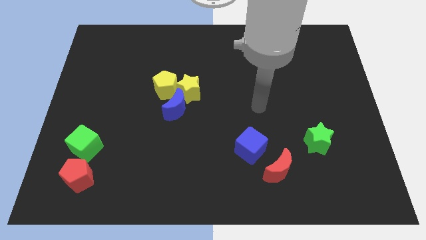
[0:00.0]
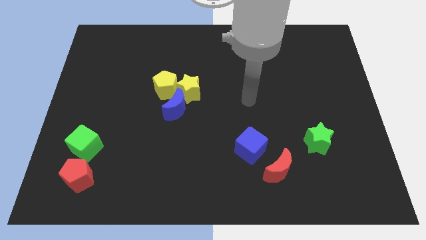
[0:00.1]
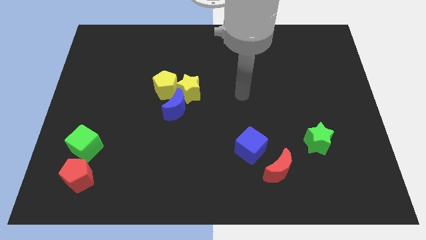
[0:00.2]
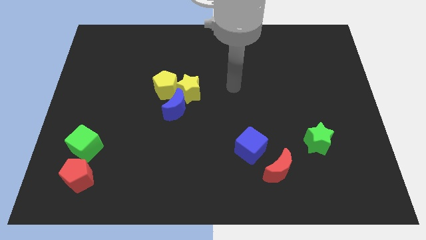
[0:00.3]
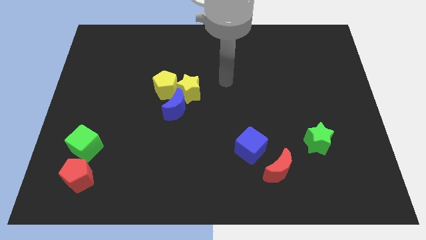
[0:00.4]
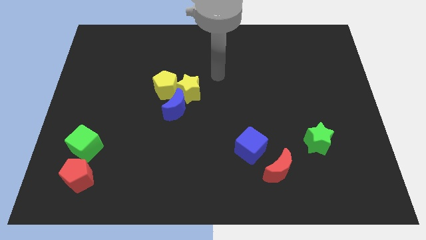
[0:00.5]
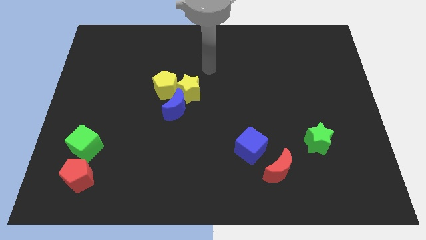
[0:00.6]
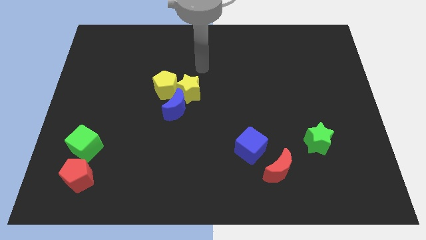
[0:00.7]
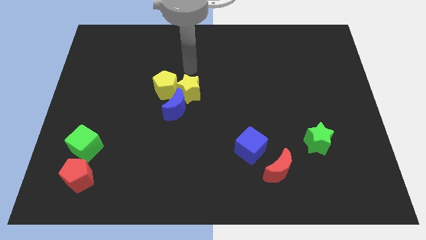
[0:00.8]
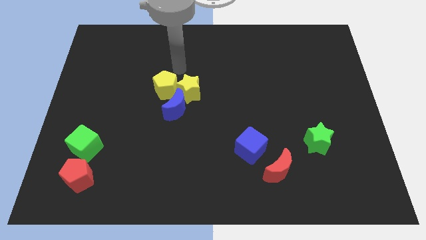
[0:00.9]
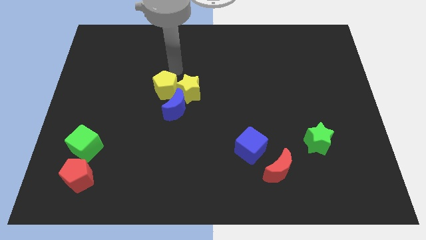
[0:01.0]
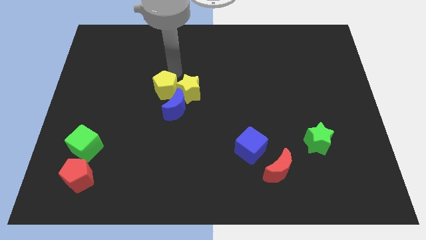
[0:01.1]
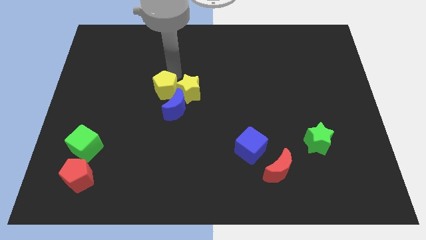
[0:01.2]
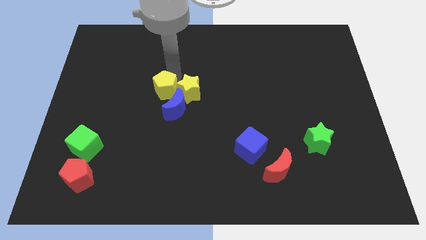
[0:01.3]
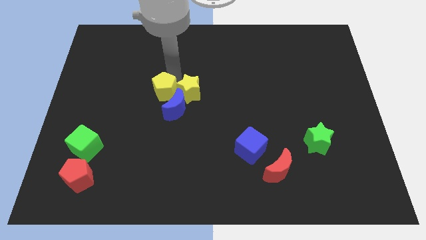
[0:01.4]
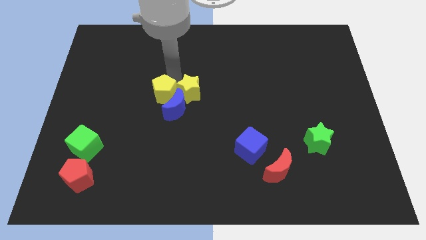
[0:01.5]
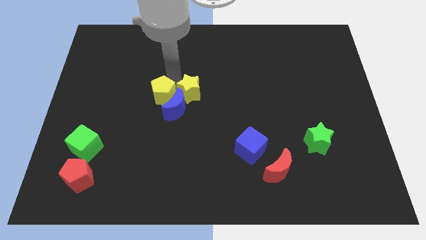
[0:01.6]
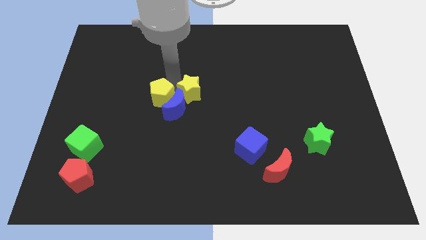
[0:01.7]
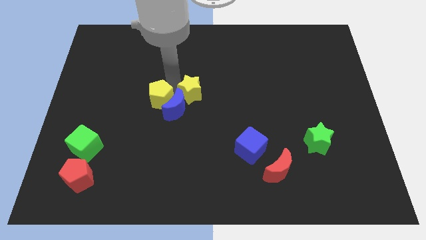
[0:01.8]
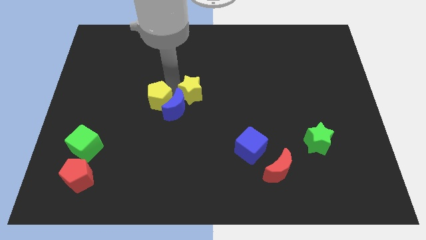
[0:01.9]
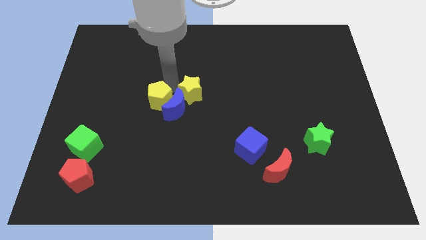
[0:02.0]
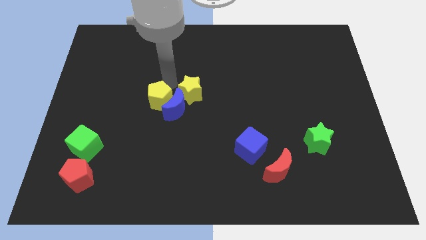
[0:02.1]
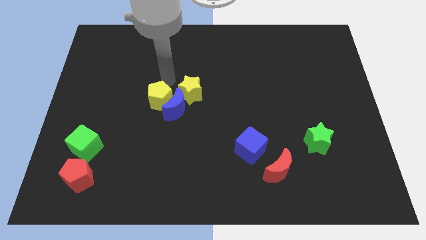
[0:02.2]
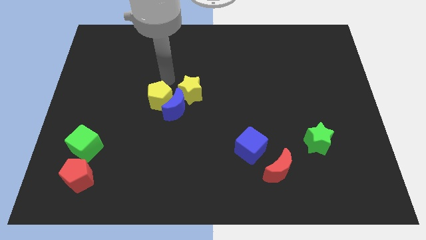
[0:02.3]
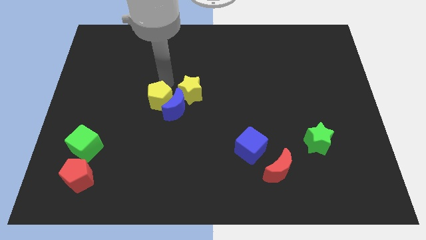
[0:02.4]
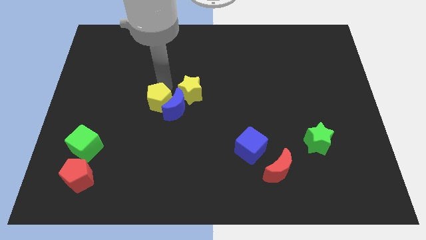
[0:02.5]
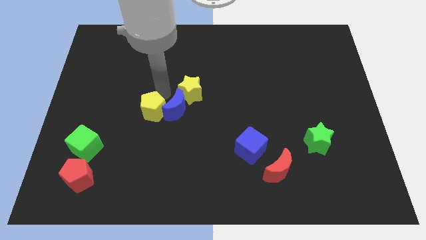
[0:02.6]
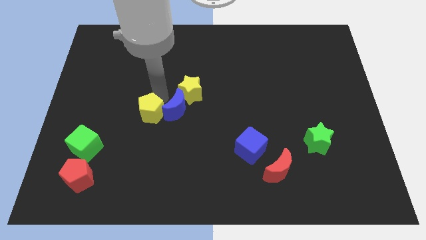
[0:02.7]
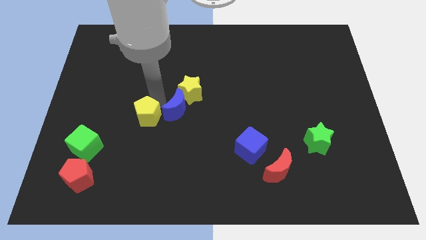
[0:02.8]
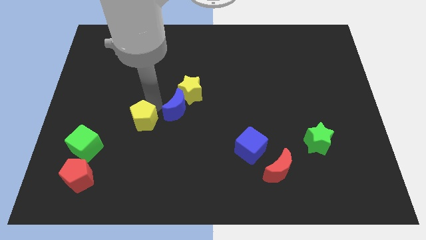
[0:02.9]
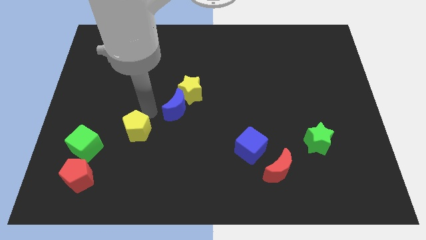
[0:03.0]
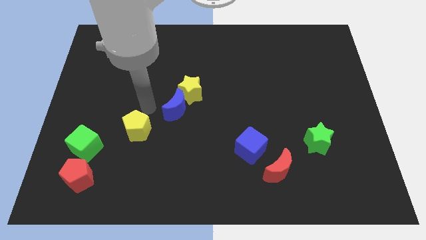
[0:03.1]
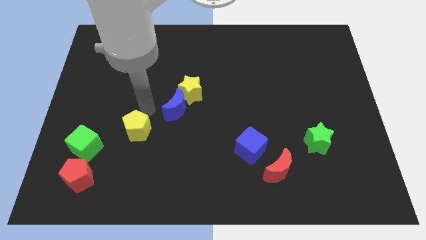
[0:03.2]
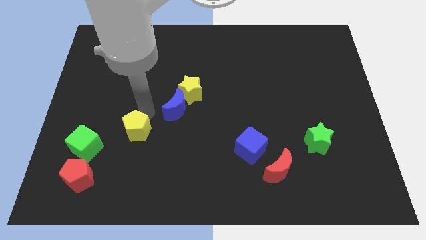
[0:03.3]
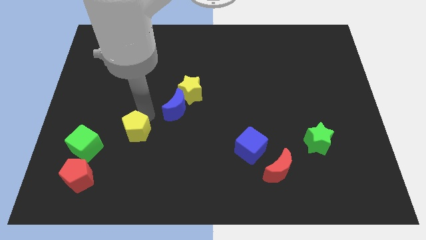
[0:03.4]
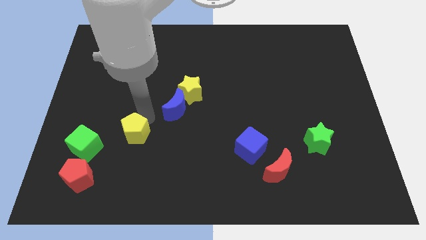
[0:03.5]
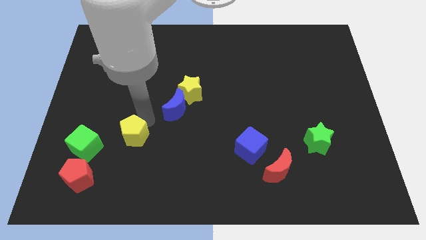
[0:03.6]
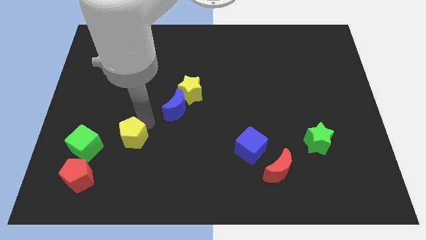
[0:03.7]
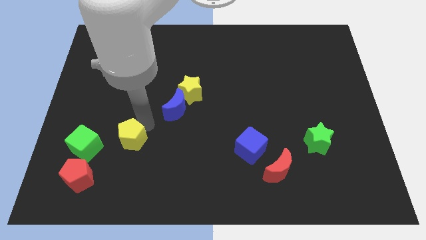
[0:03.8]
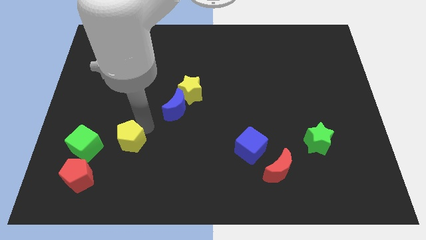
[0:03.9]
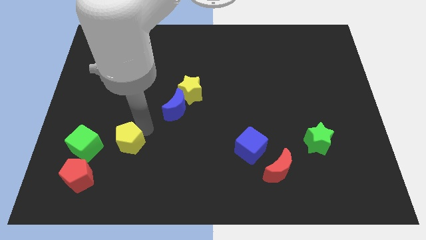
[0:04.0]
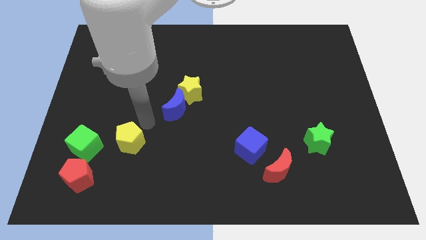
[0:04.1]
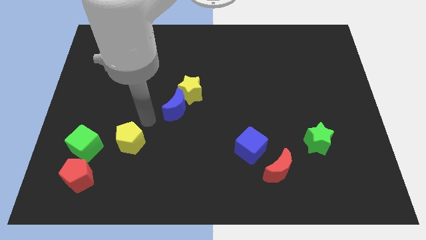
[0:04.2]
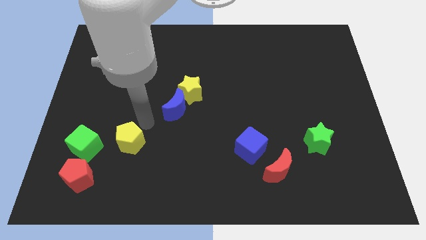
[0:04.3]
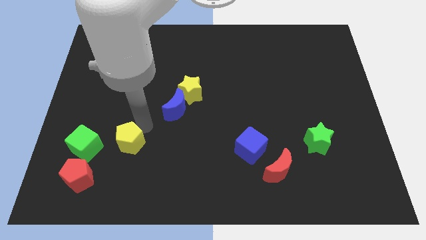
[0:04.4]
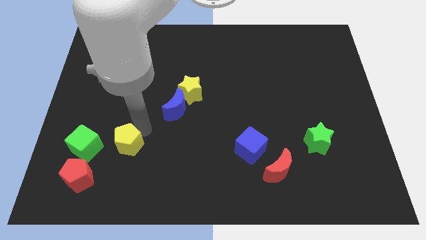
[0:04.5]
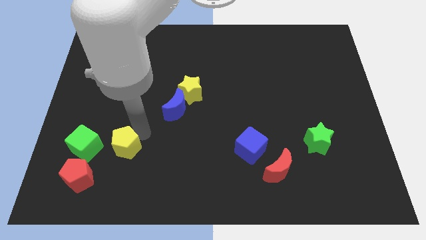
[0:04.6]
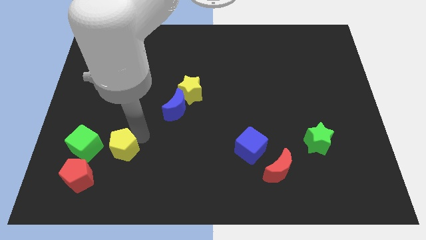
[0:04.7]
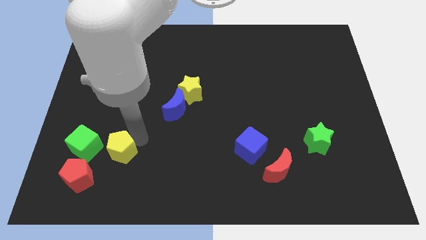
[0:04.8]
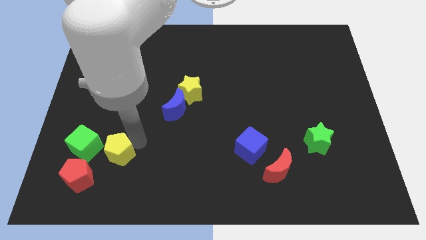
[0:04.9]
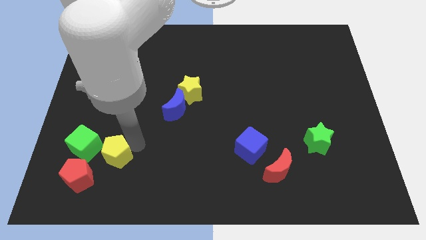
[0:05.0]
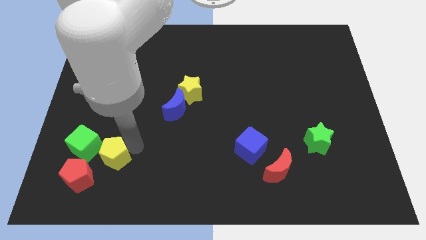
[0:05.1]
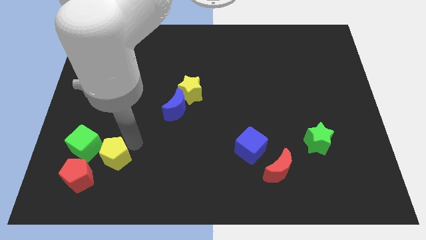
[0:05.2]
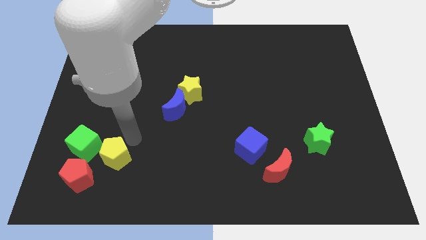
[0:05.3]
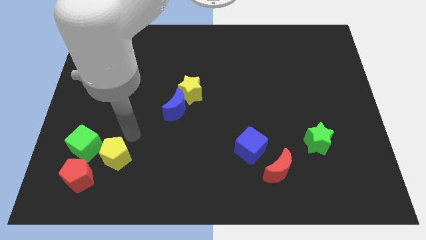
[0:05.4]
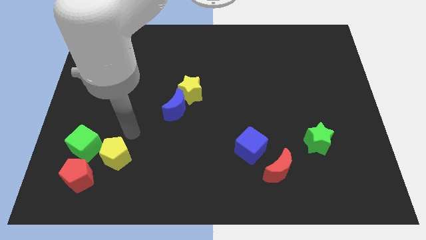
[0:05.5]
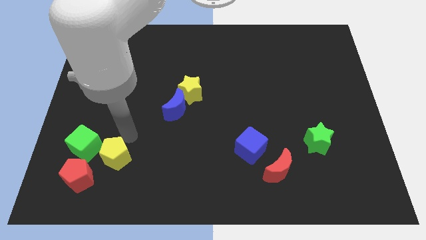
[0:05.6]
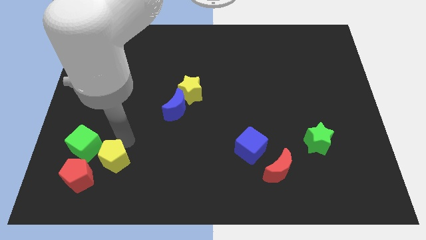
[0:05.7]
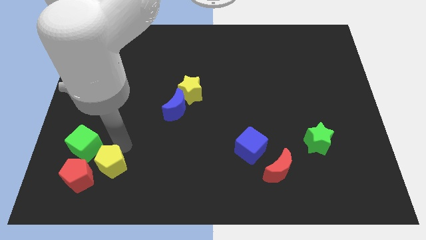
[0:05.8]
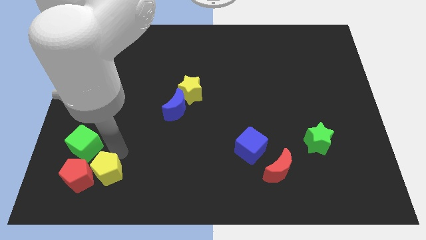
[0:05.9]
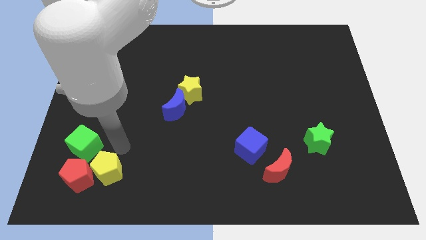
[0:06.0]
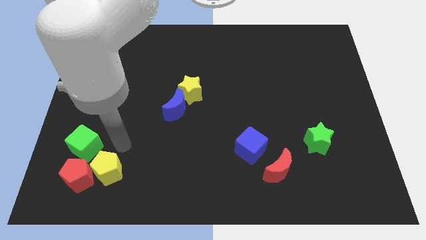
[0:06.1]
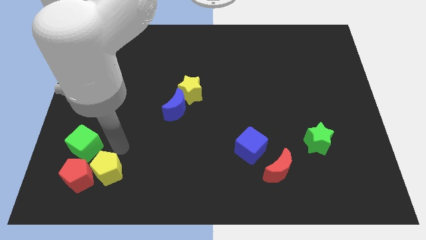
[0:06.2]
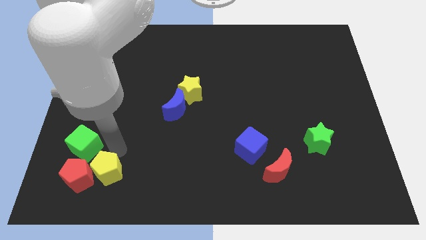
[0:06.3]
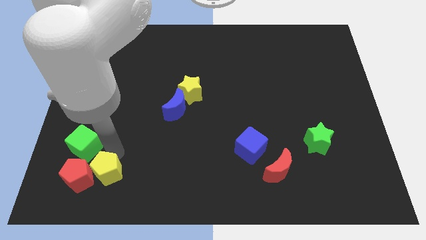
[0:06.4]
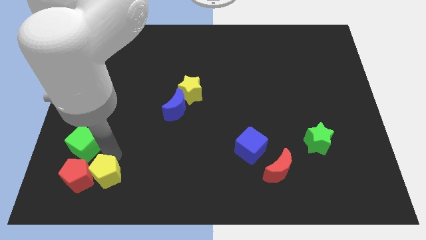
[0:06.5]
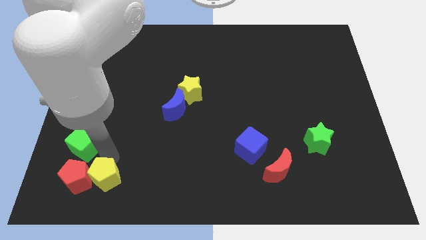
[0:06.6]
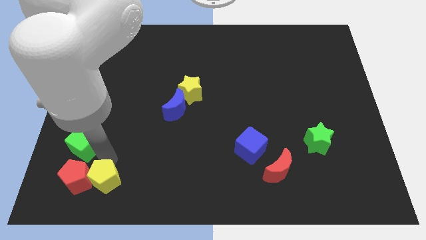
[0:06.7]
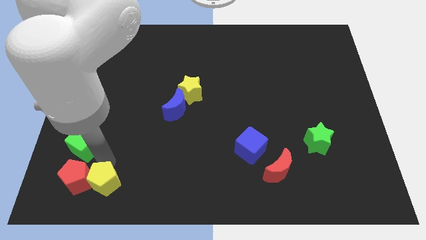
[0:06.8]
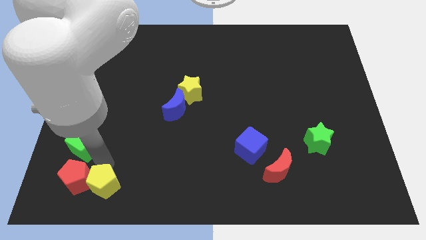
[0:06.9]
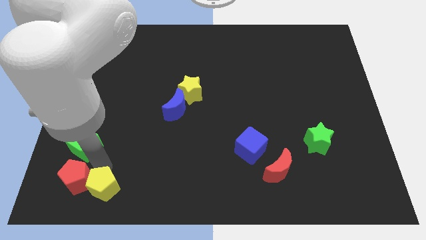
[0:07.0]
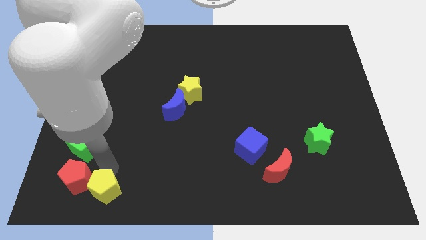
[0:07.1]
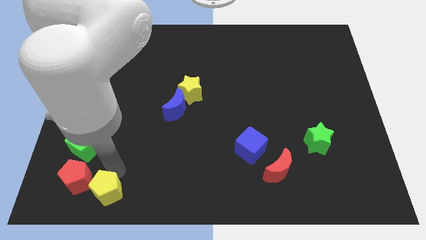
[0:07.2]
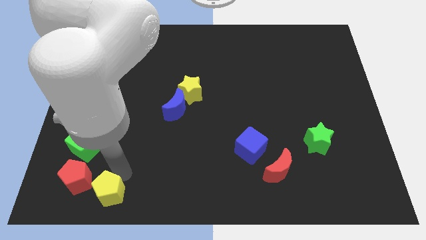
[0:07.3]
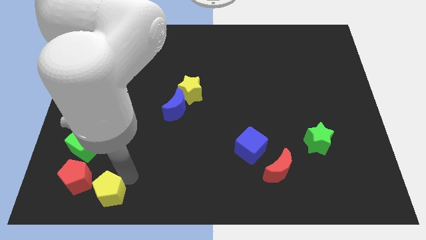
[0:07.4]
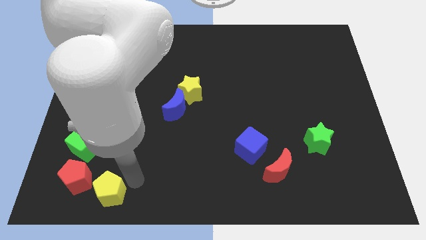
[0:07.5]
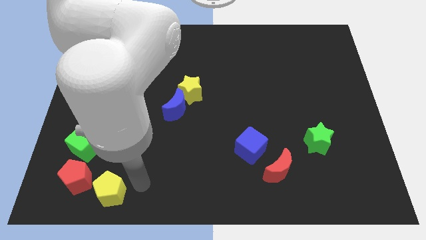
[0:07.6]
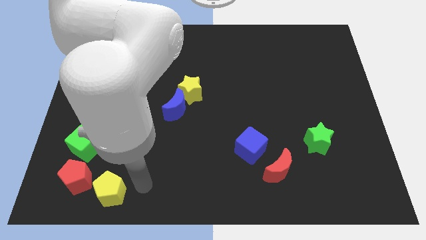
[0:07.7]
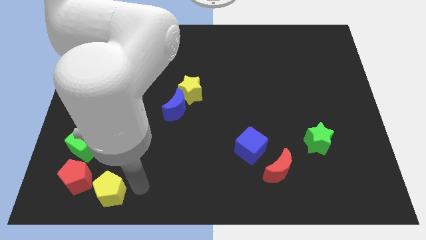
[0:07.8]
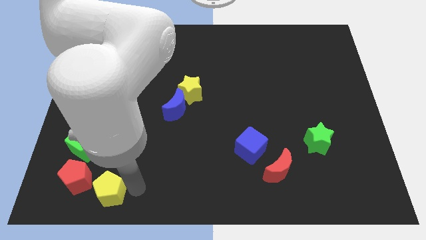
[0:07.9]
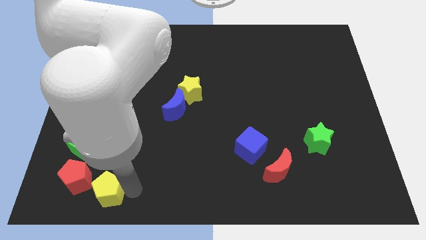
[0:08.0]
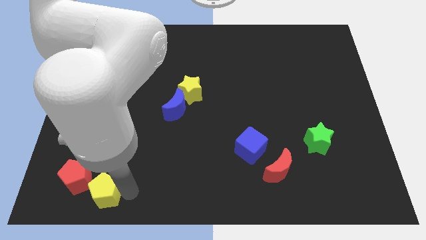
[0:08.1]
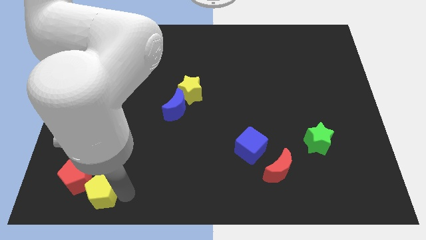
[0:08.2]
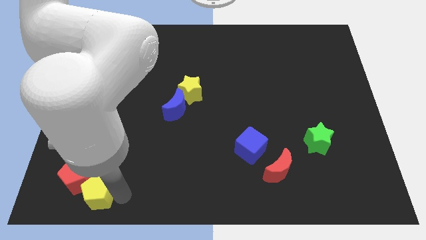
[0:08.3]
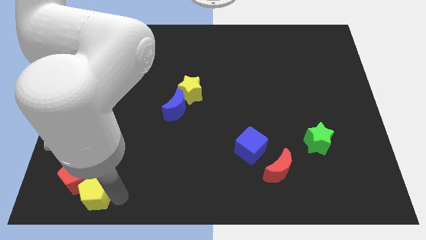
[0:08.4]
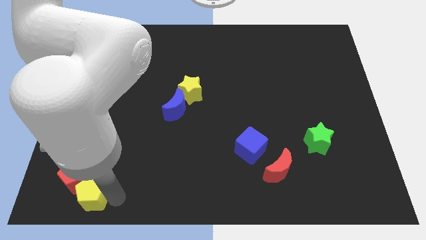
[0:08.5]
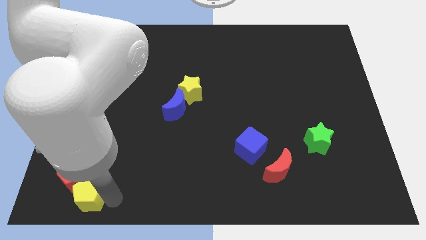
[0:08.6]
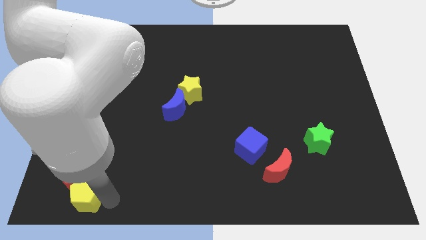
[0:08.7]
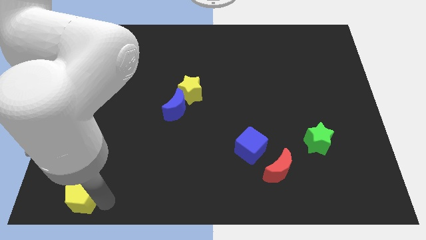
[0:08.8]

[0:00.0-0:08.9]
push the yellow pentagon to the bottom left of the board
